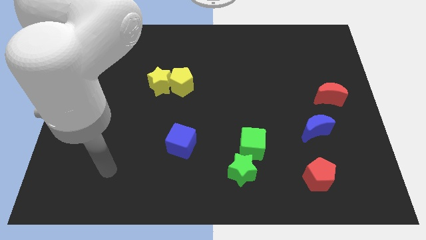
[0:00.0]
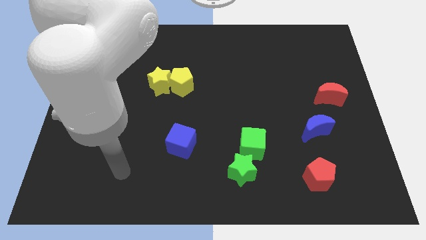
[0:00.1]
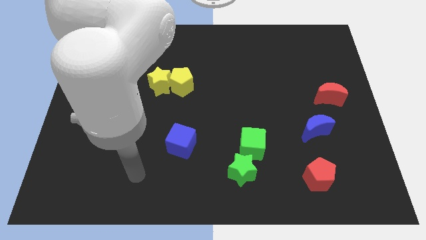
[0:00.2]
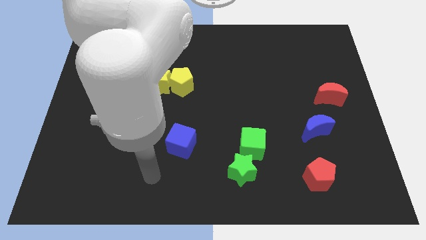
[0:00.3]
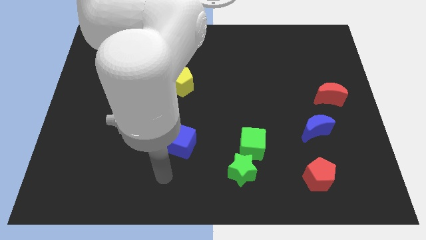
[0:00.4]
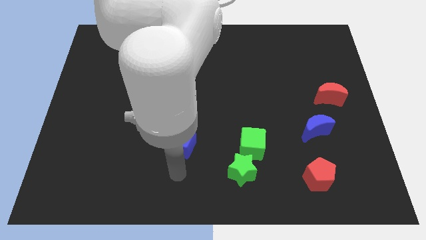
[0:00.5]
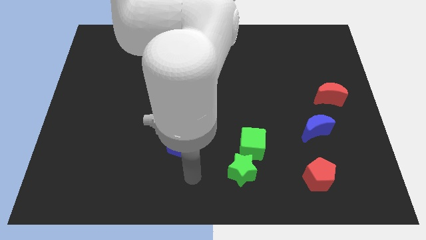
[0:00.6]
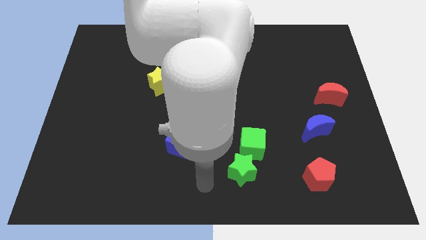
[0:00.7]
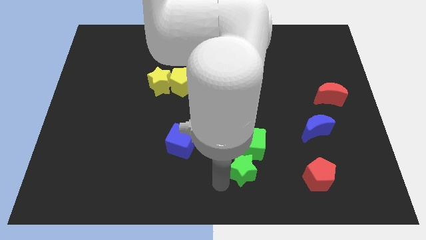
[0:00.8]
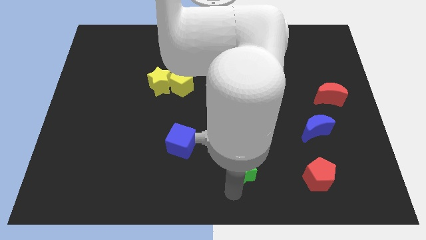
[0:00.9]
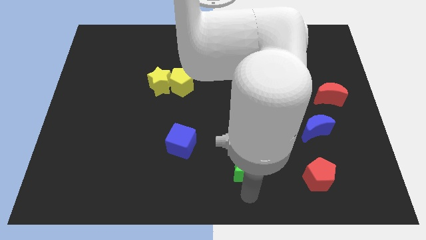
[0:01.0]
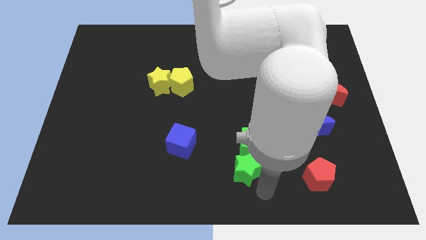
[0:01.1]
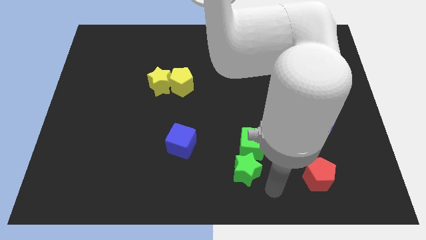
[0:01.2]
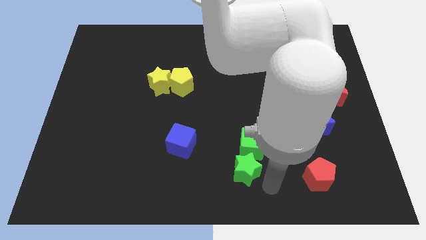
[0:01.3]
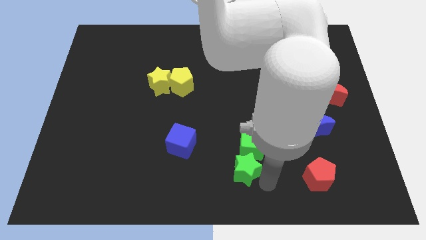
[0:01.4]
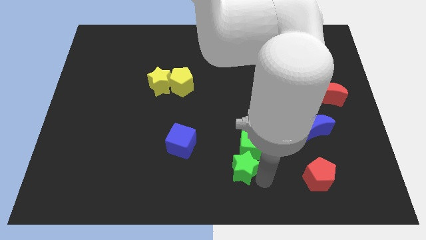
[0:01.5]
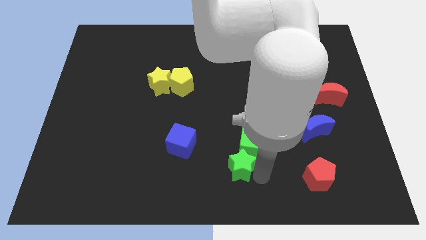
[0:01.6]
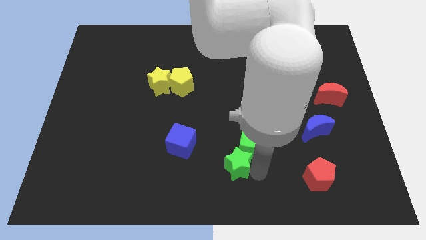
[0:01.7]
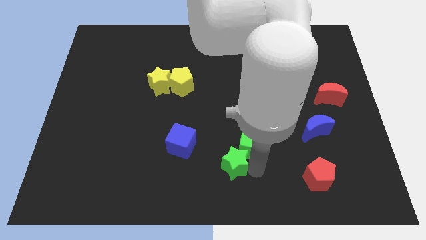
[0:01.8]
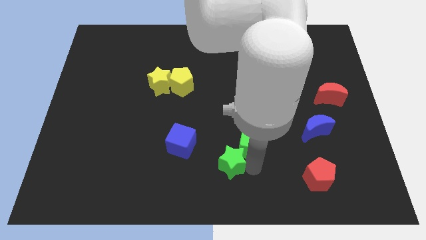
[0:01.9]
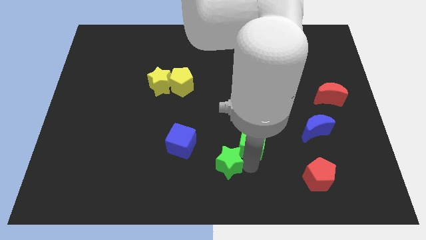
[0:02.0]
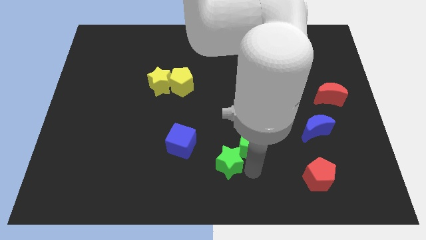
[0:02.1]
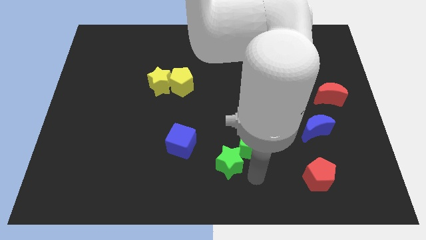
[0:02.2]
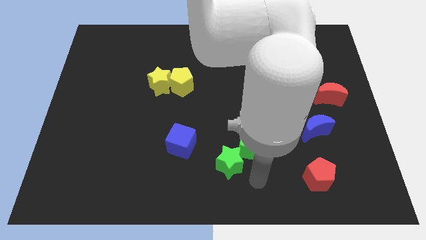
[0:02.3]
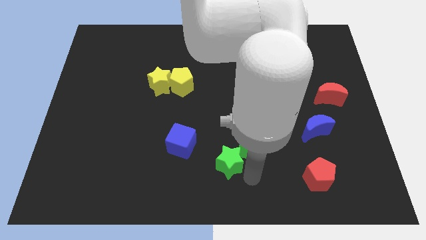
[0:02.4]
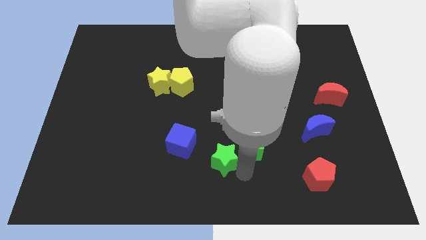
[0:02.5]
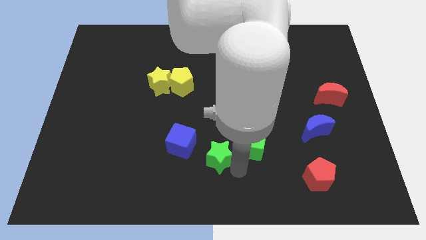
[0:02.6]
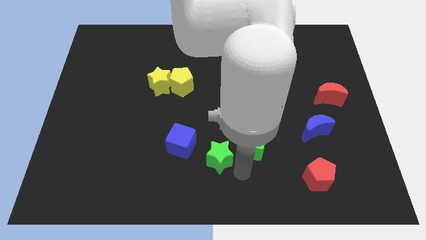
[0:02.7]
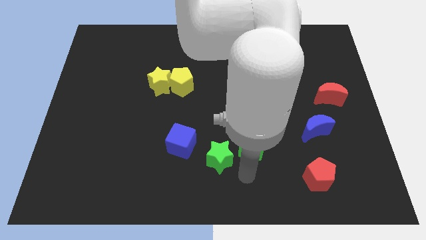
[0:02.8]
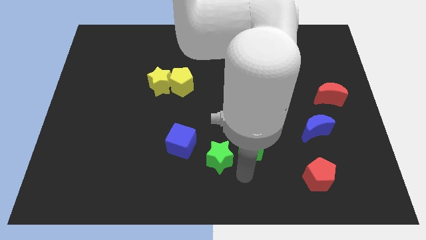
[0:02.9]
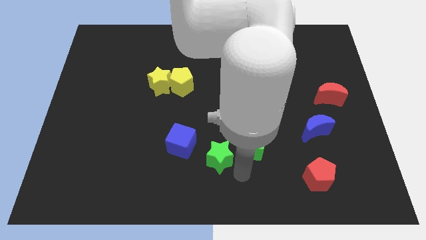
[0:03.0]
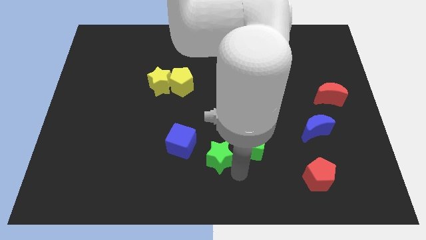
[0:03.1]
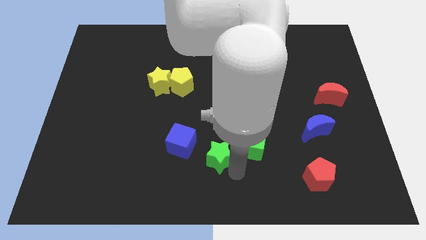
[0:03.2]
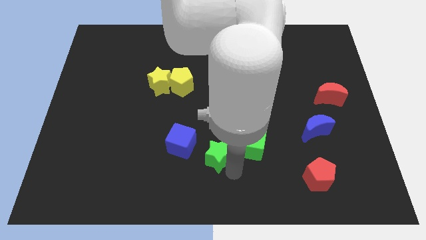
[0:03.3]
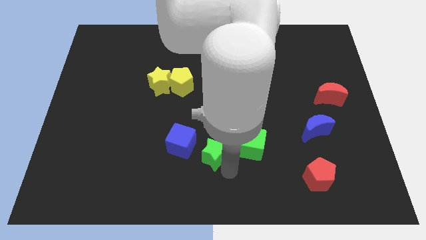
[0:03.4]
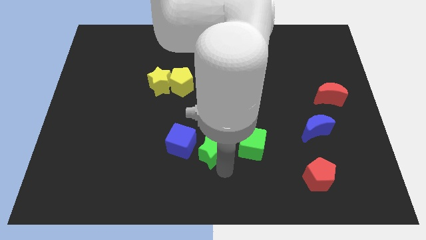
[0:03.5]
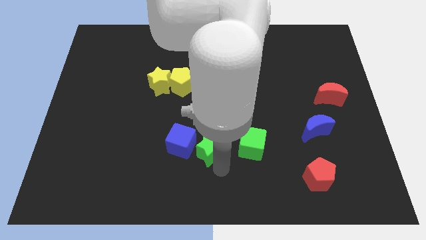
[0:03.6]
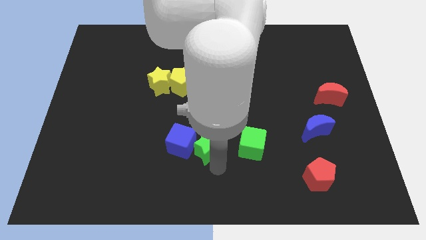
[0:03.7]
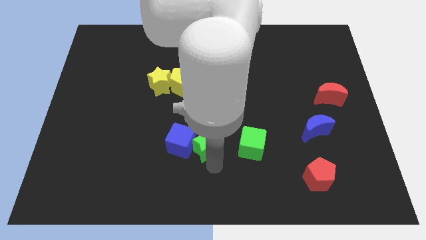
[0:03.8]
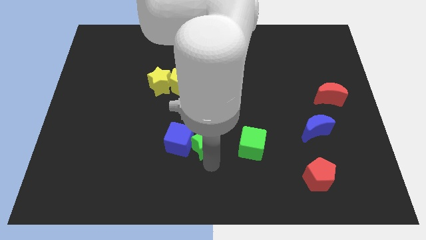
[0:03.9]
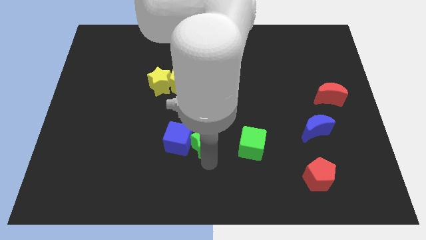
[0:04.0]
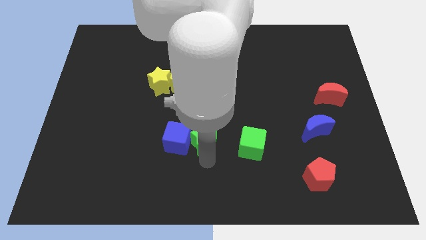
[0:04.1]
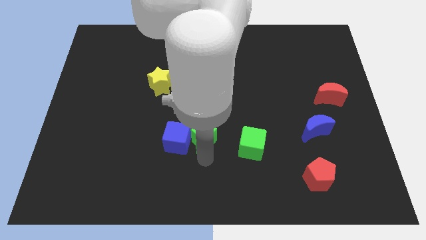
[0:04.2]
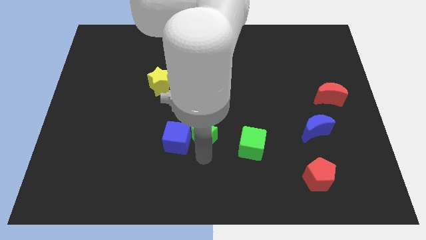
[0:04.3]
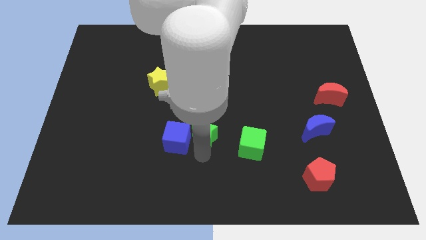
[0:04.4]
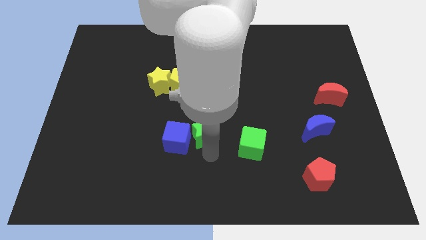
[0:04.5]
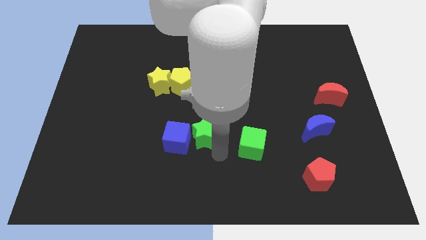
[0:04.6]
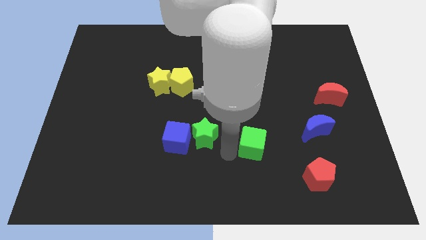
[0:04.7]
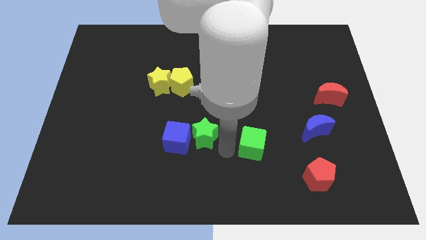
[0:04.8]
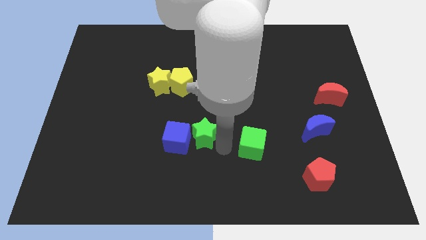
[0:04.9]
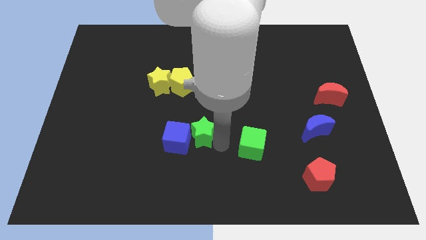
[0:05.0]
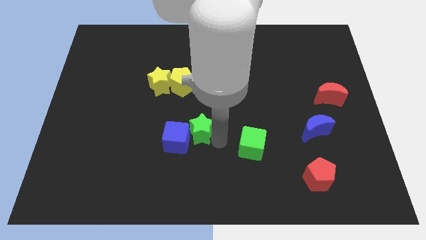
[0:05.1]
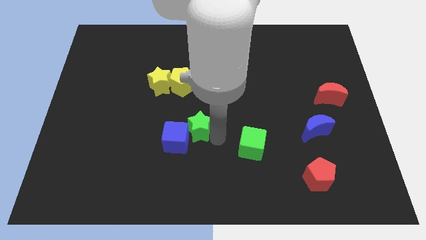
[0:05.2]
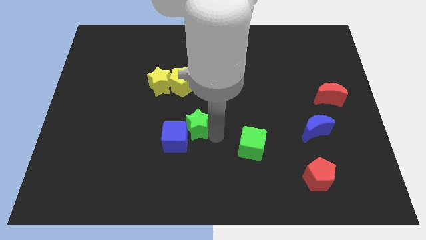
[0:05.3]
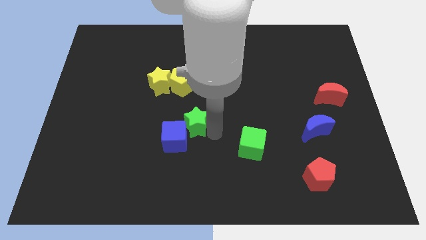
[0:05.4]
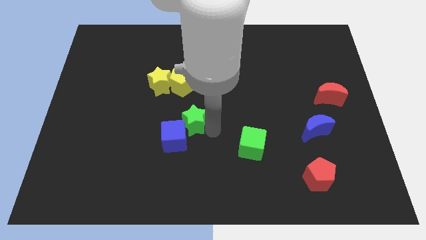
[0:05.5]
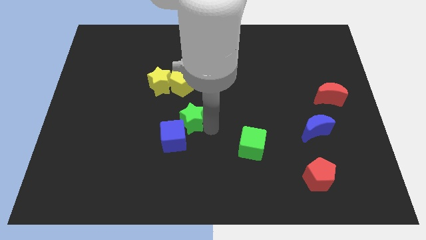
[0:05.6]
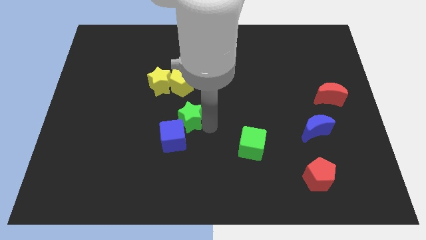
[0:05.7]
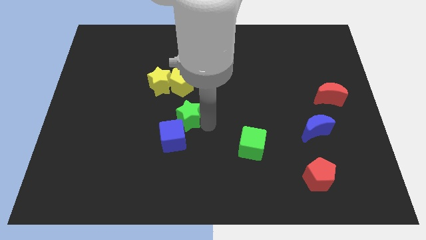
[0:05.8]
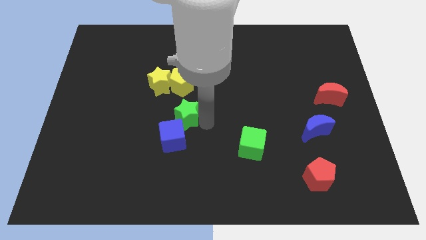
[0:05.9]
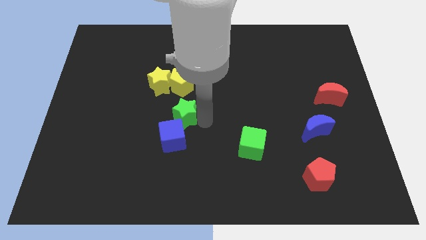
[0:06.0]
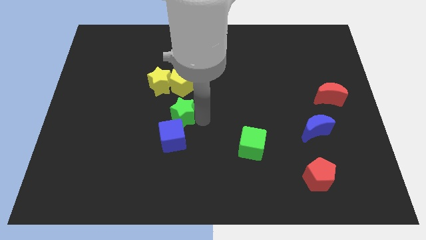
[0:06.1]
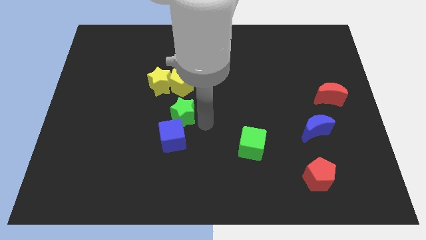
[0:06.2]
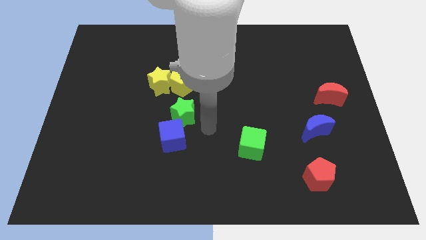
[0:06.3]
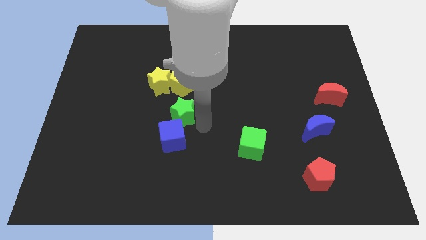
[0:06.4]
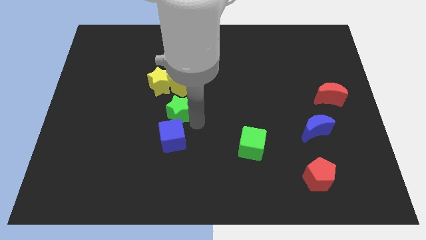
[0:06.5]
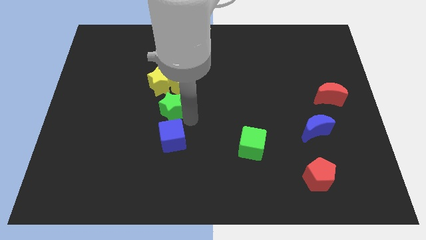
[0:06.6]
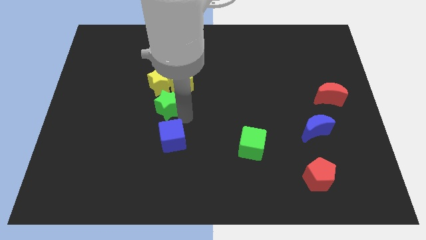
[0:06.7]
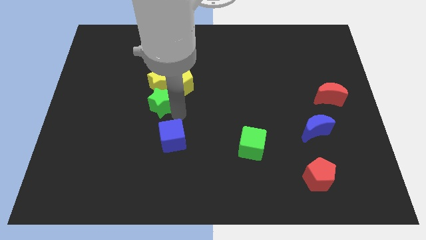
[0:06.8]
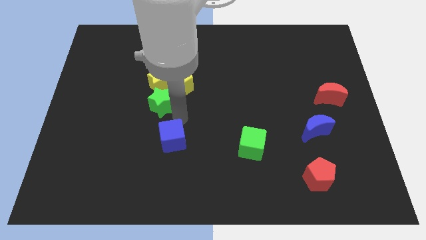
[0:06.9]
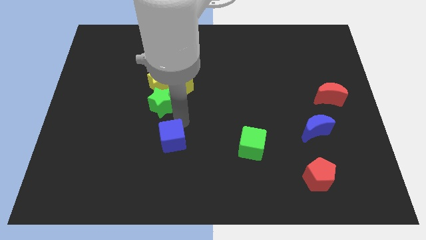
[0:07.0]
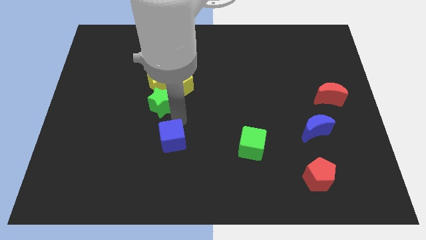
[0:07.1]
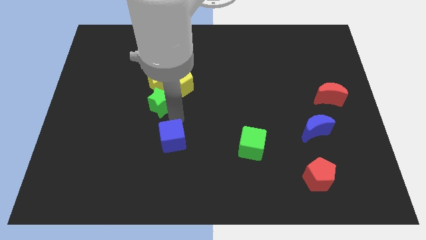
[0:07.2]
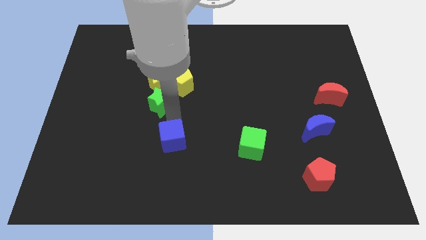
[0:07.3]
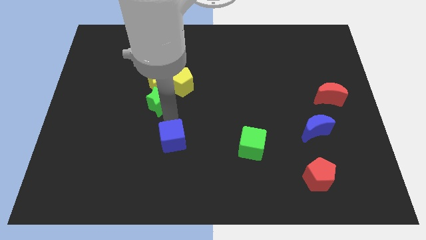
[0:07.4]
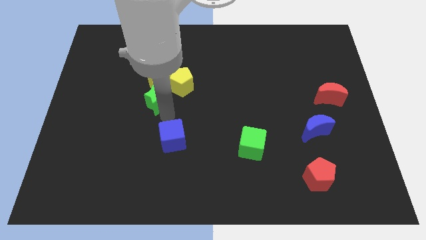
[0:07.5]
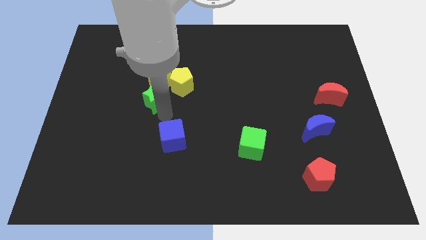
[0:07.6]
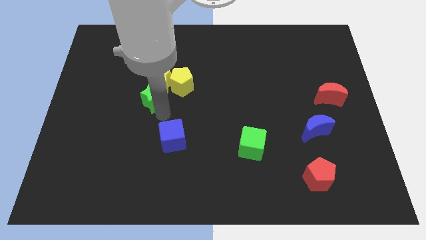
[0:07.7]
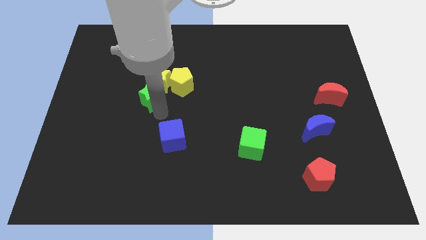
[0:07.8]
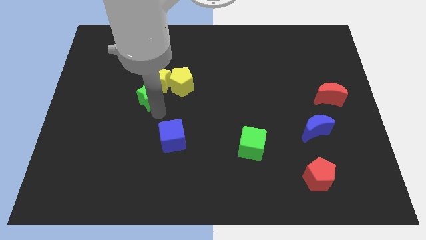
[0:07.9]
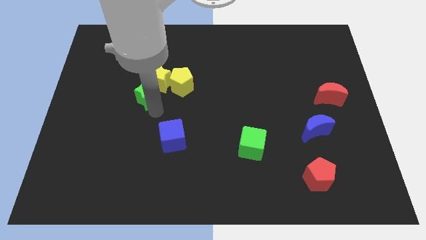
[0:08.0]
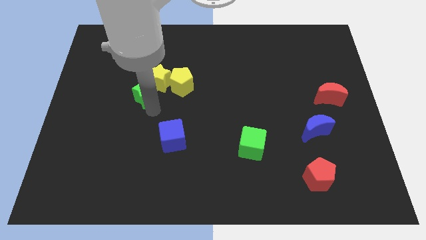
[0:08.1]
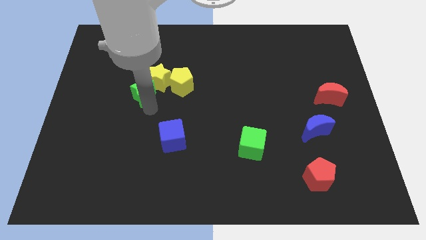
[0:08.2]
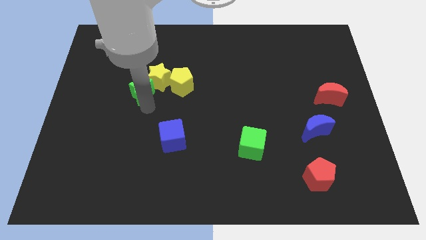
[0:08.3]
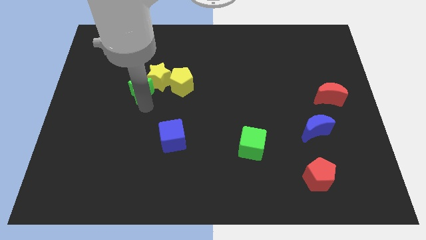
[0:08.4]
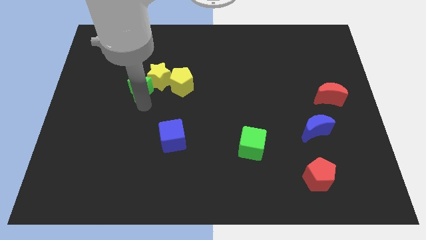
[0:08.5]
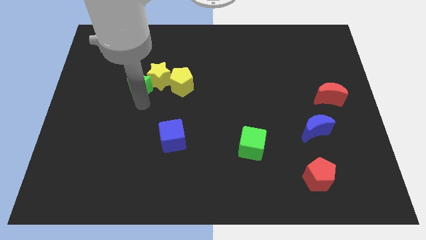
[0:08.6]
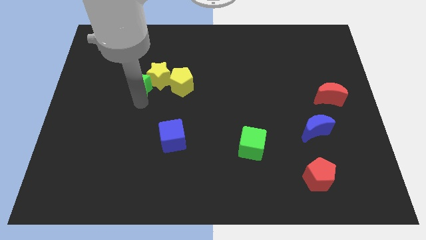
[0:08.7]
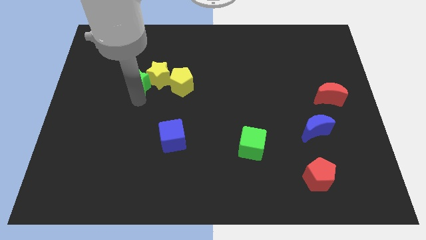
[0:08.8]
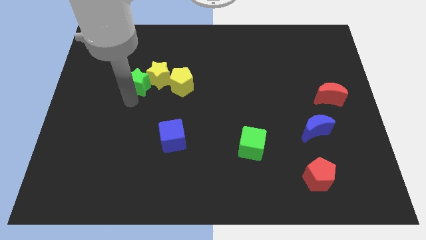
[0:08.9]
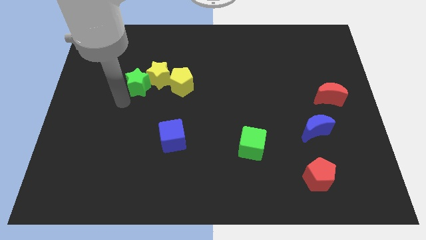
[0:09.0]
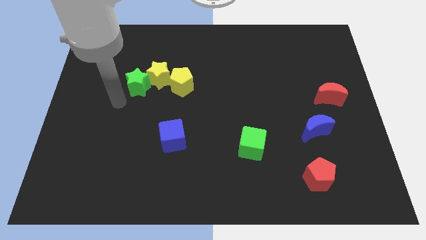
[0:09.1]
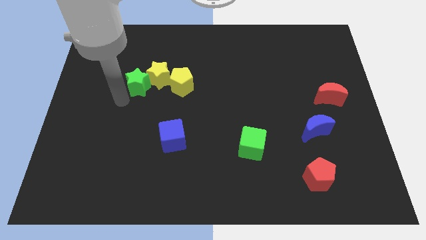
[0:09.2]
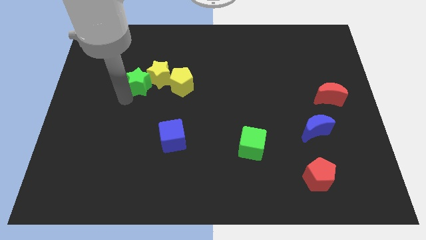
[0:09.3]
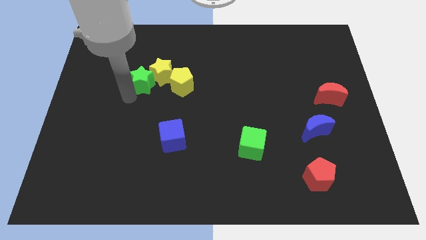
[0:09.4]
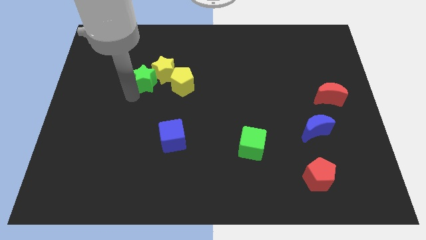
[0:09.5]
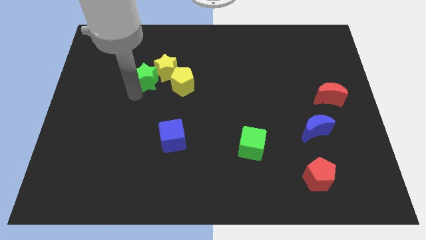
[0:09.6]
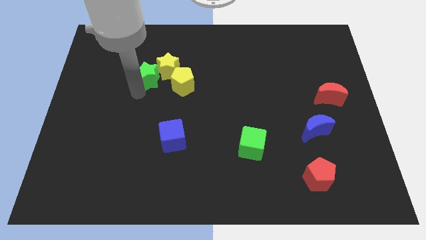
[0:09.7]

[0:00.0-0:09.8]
slide the green star to the top left side of the yellow pentagon
